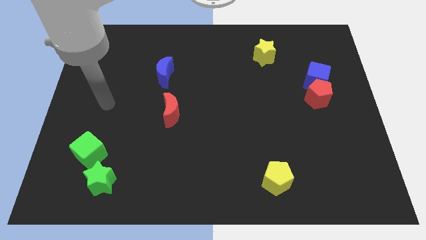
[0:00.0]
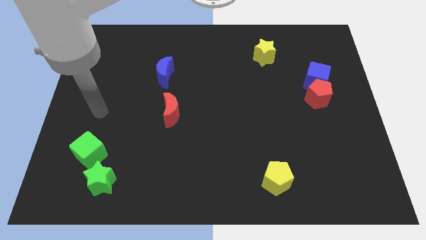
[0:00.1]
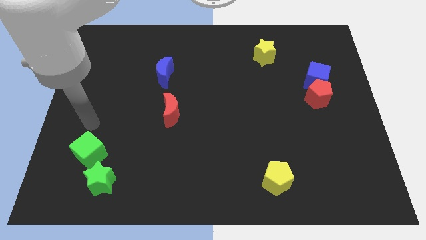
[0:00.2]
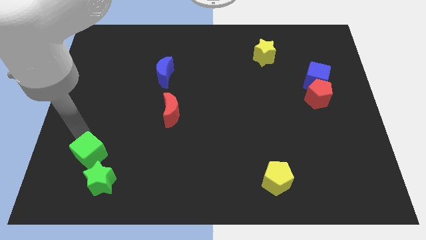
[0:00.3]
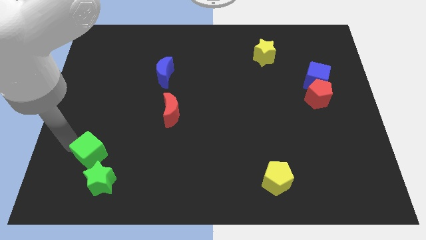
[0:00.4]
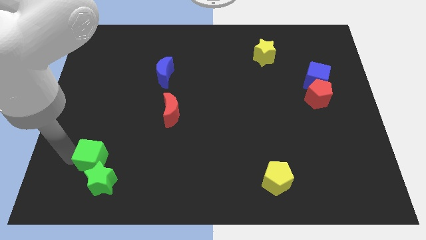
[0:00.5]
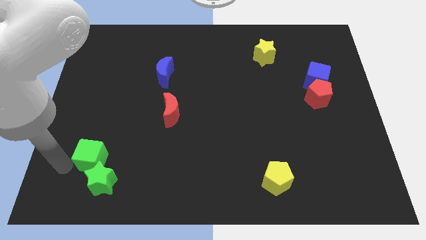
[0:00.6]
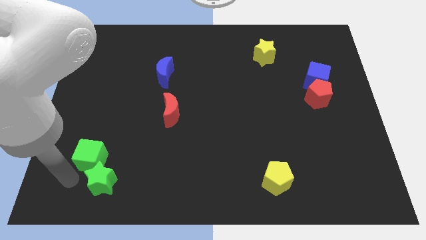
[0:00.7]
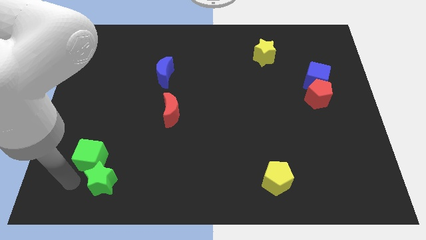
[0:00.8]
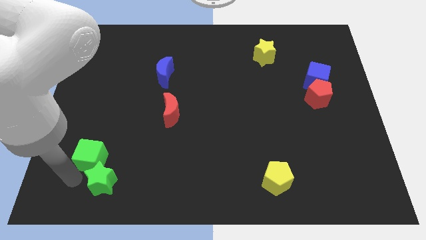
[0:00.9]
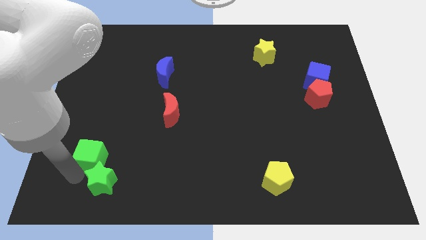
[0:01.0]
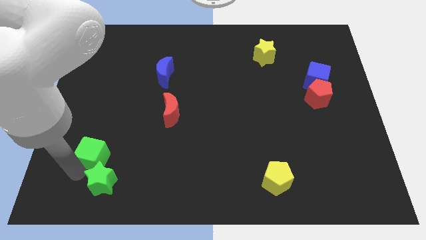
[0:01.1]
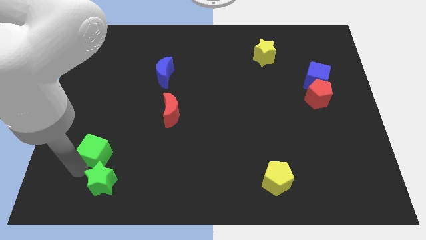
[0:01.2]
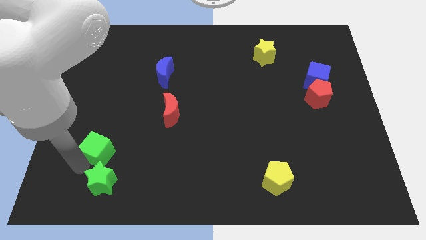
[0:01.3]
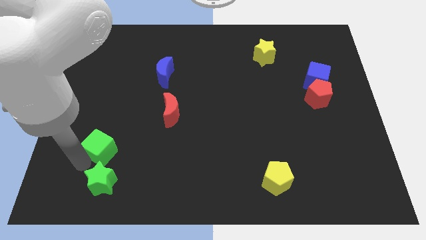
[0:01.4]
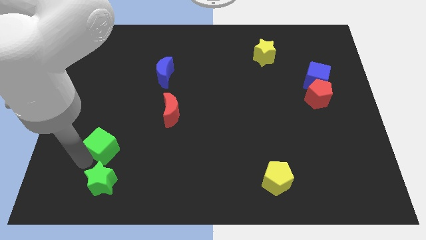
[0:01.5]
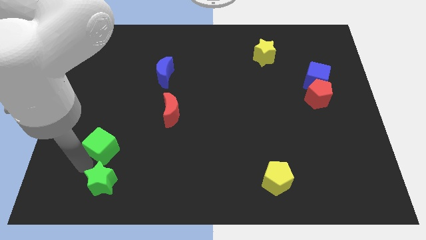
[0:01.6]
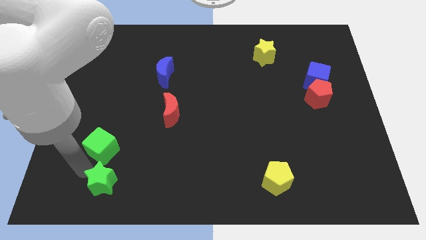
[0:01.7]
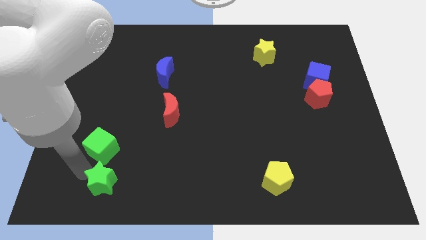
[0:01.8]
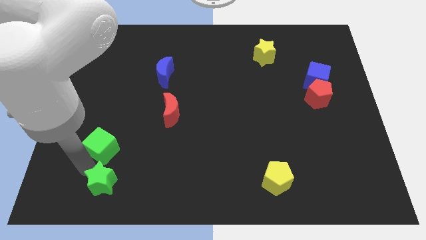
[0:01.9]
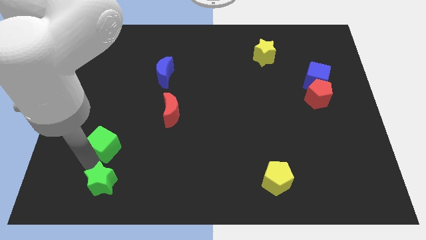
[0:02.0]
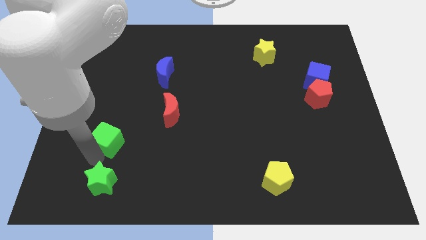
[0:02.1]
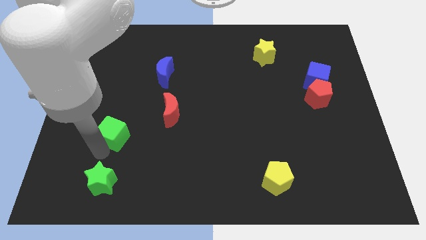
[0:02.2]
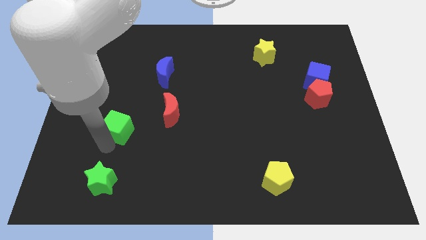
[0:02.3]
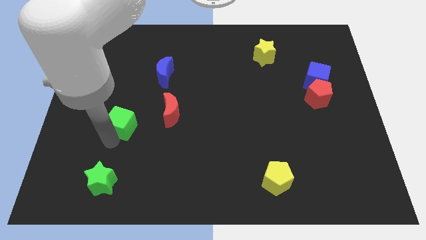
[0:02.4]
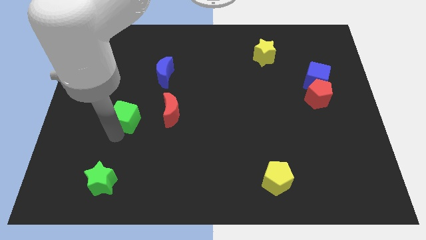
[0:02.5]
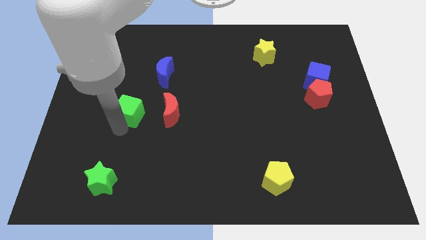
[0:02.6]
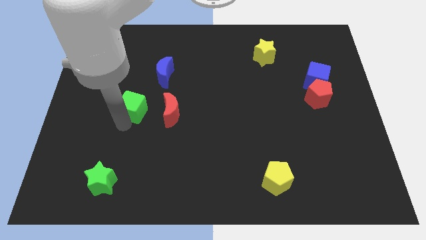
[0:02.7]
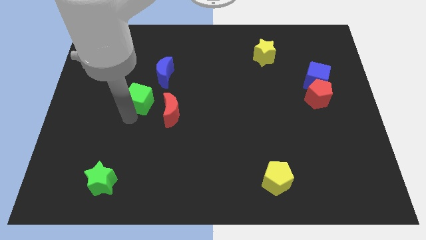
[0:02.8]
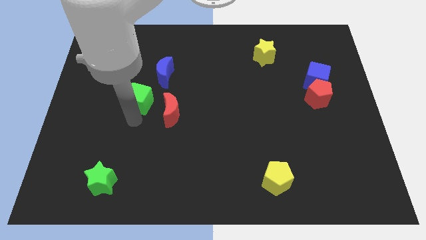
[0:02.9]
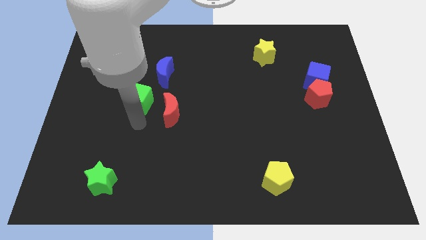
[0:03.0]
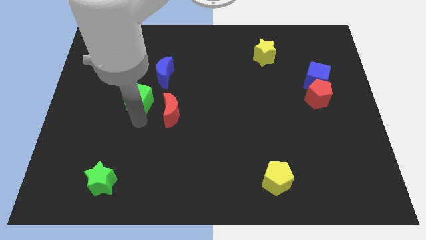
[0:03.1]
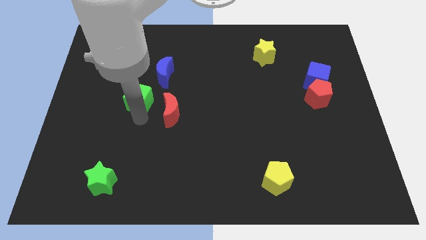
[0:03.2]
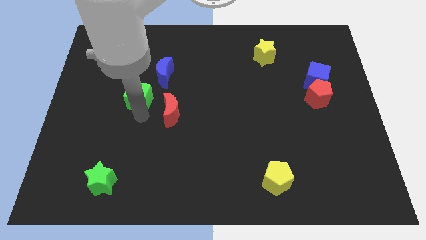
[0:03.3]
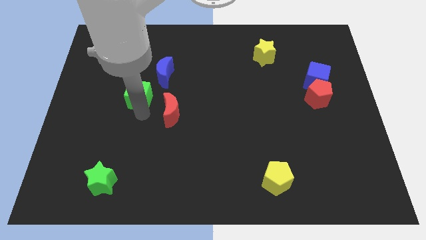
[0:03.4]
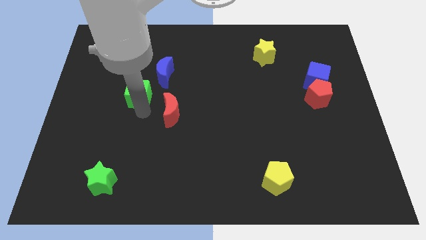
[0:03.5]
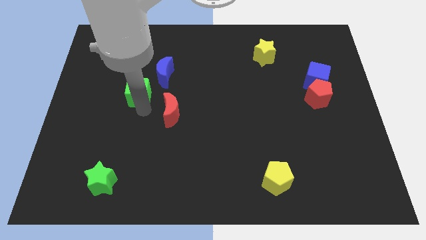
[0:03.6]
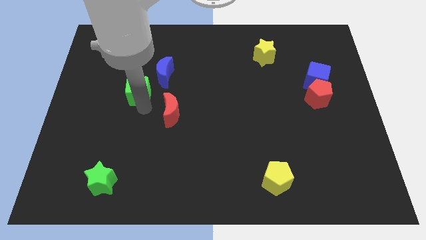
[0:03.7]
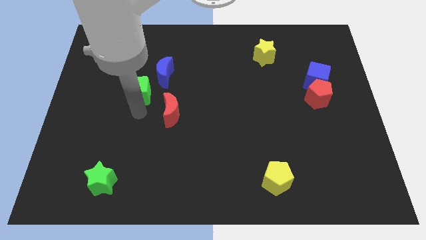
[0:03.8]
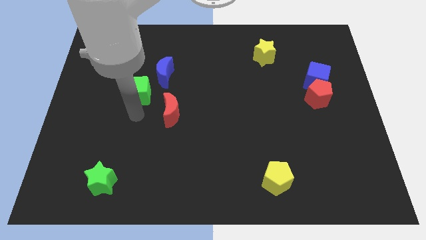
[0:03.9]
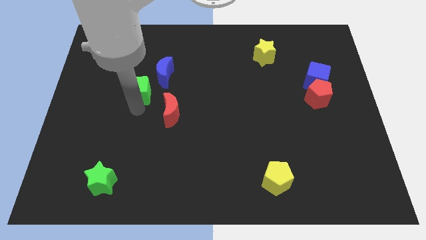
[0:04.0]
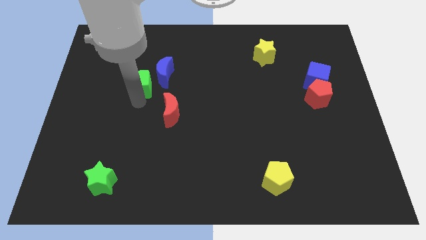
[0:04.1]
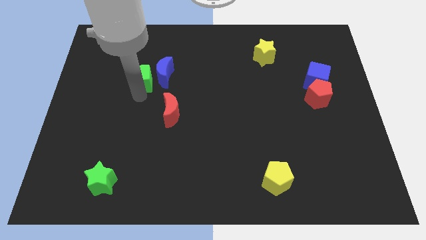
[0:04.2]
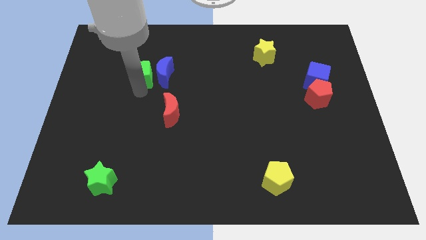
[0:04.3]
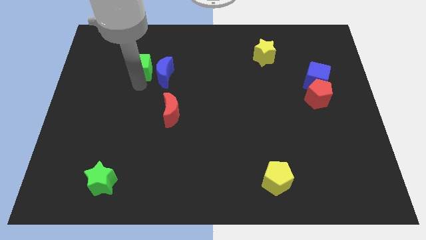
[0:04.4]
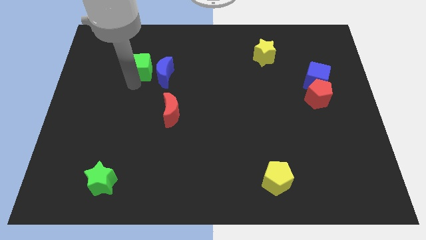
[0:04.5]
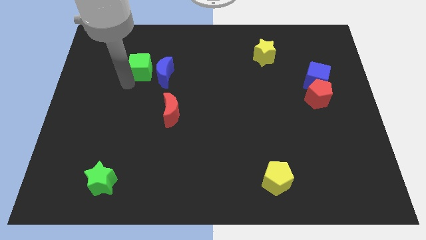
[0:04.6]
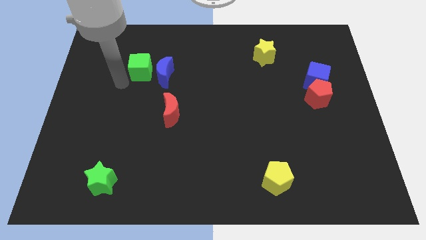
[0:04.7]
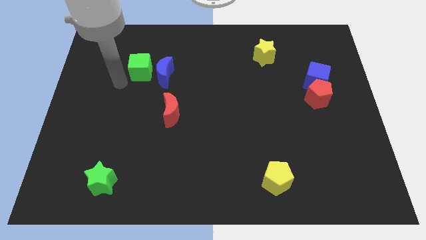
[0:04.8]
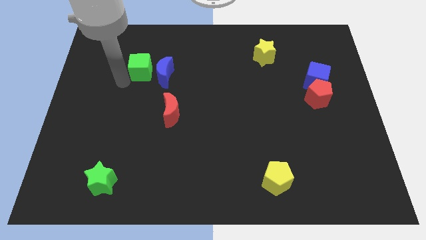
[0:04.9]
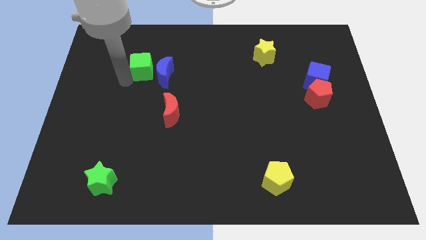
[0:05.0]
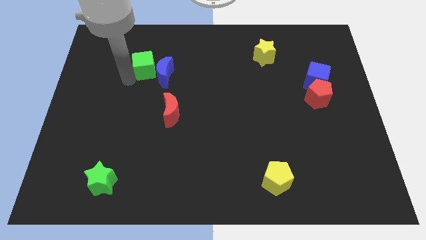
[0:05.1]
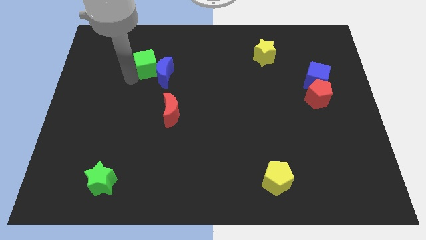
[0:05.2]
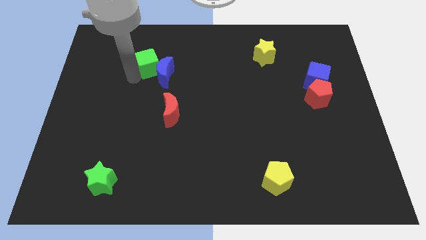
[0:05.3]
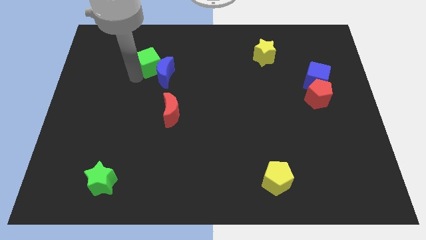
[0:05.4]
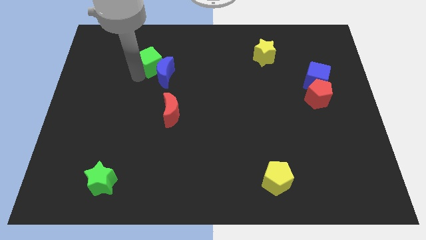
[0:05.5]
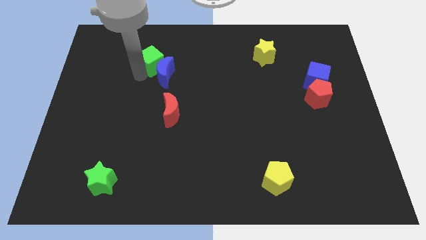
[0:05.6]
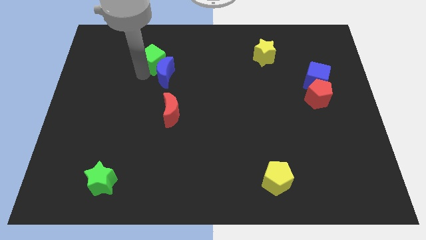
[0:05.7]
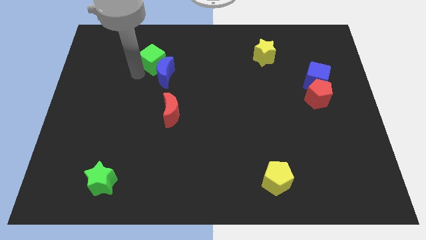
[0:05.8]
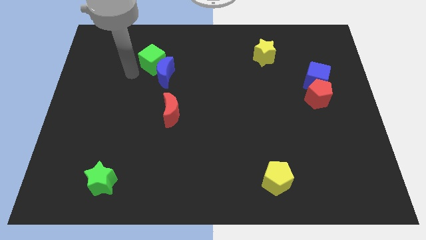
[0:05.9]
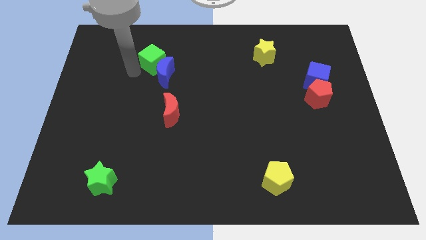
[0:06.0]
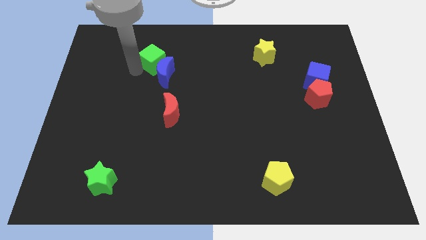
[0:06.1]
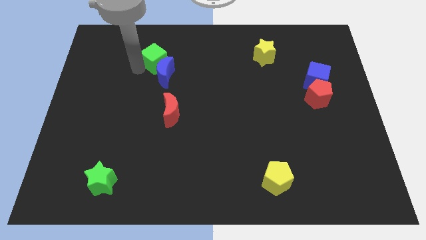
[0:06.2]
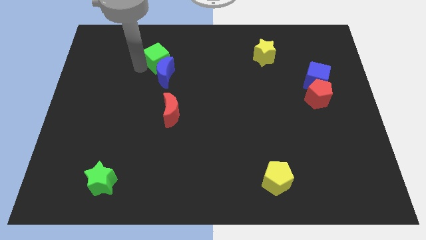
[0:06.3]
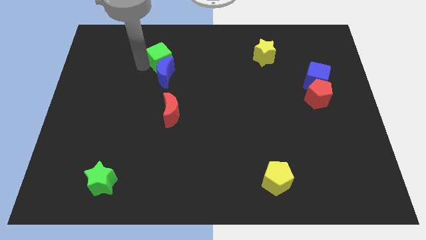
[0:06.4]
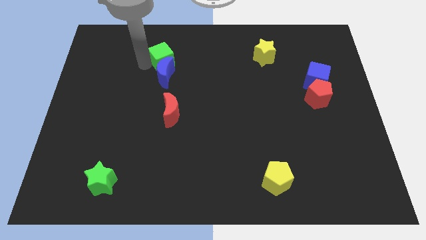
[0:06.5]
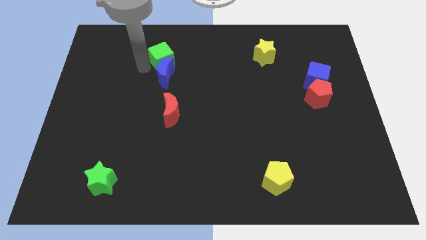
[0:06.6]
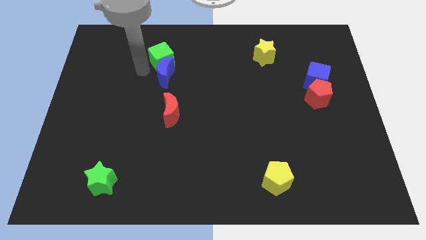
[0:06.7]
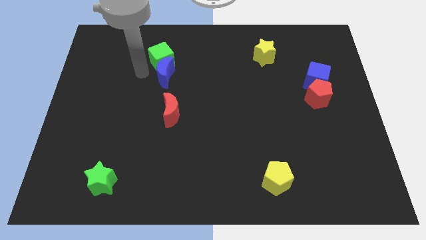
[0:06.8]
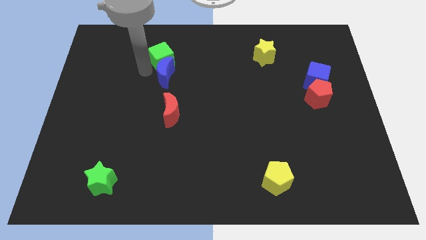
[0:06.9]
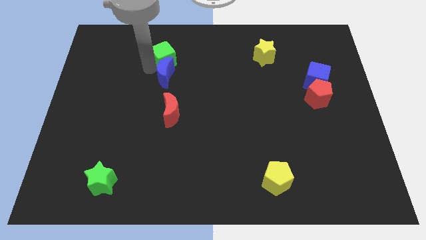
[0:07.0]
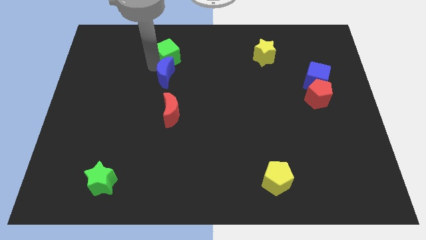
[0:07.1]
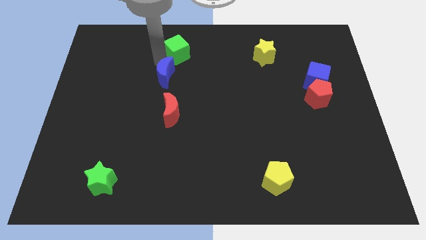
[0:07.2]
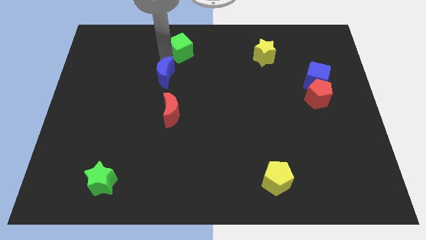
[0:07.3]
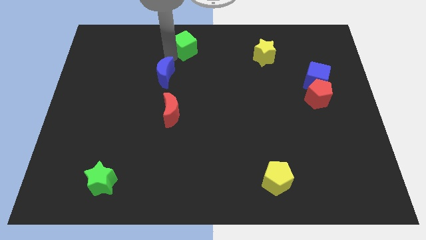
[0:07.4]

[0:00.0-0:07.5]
slide the green cube to the top side
